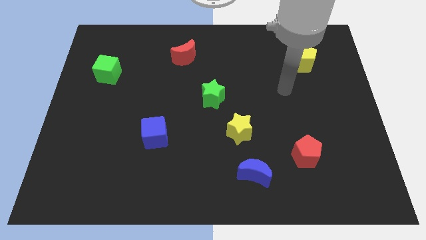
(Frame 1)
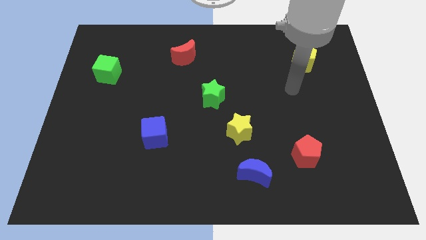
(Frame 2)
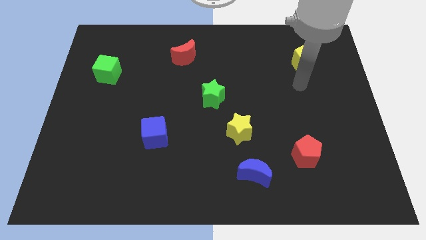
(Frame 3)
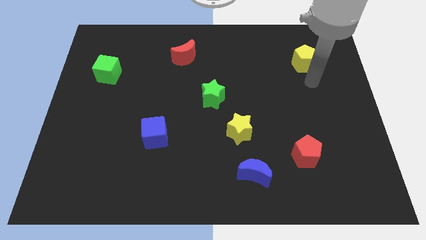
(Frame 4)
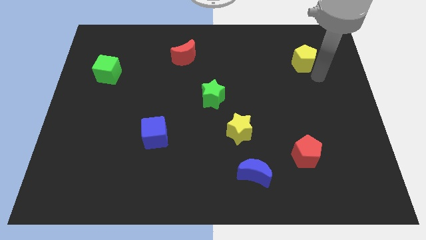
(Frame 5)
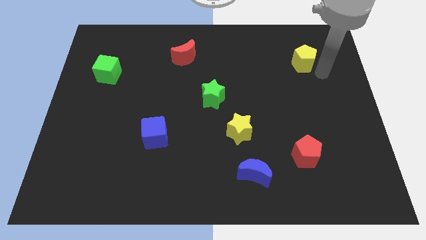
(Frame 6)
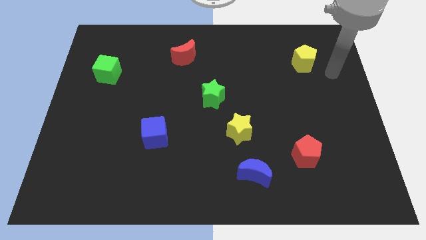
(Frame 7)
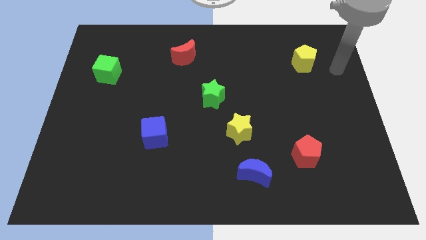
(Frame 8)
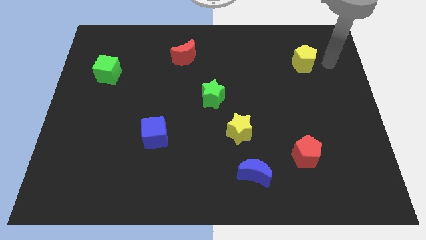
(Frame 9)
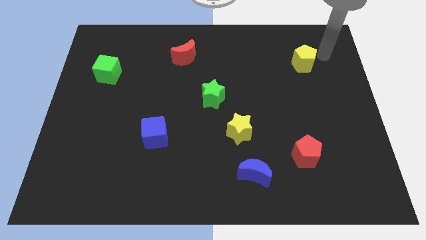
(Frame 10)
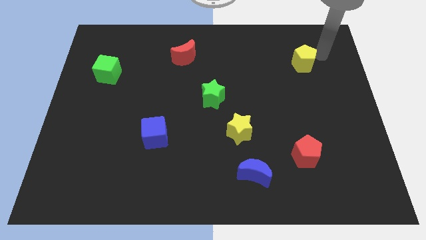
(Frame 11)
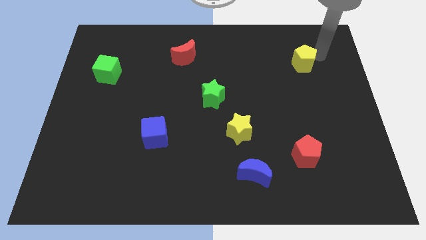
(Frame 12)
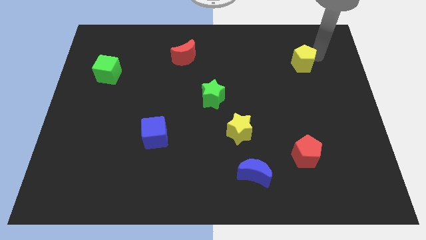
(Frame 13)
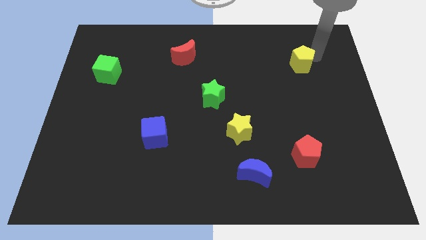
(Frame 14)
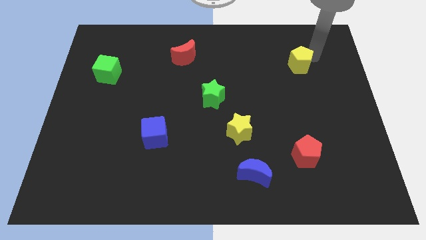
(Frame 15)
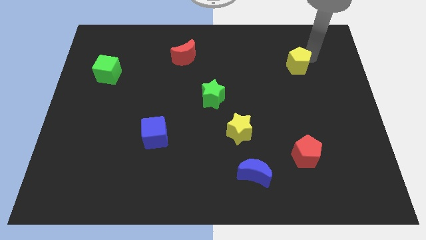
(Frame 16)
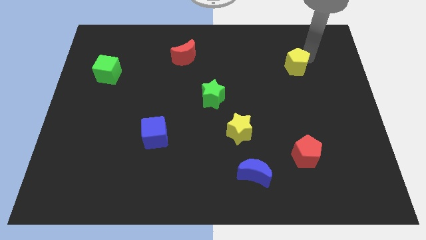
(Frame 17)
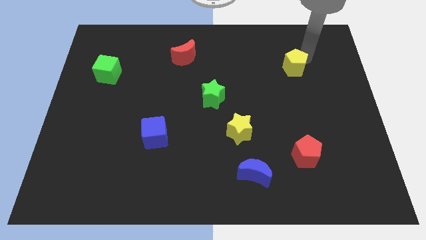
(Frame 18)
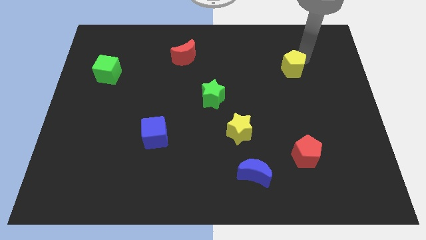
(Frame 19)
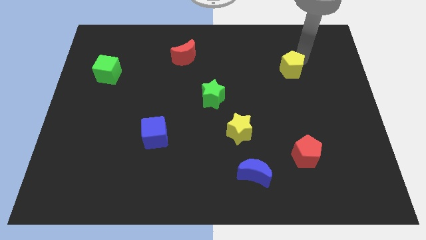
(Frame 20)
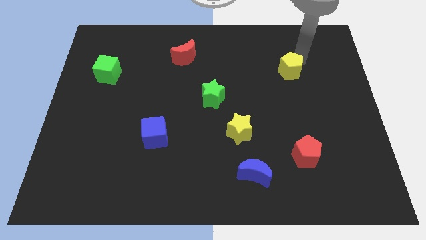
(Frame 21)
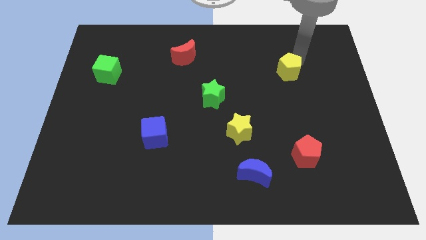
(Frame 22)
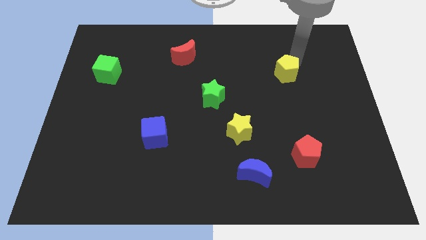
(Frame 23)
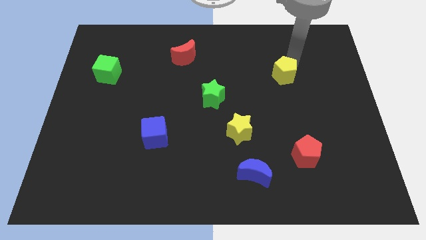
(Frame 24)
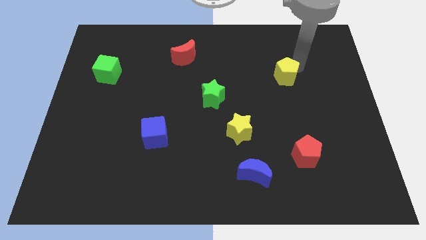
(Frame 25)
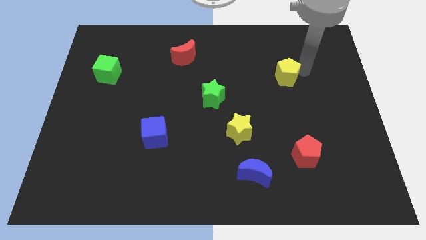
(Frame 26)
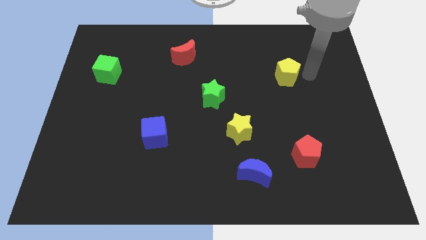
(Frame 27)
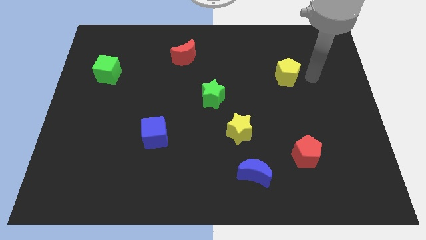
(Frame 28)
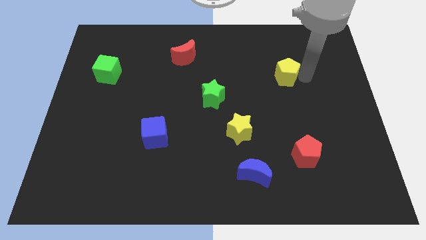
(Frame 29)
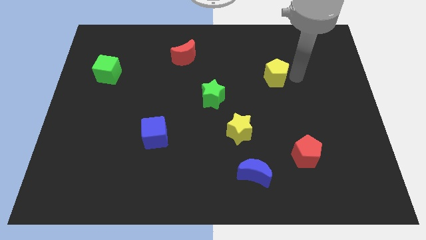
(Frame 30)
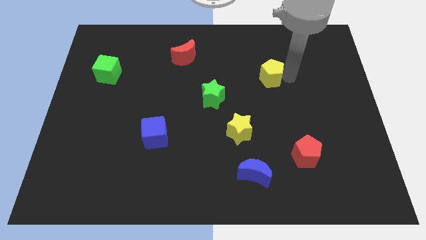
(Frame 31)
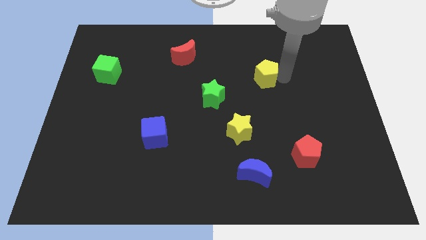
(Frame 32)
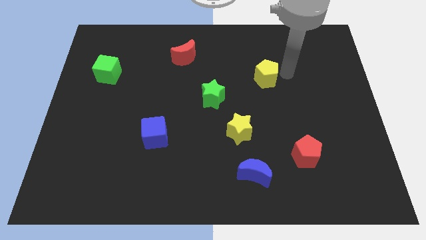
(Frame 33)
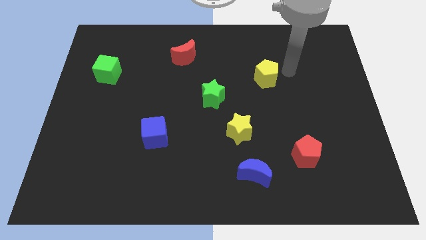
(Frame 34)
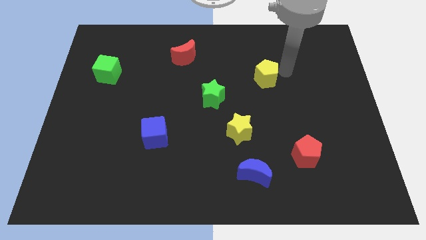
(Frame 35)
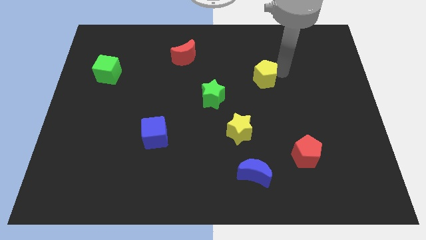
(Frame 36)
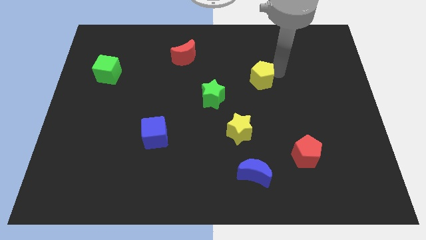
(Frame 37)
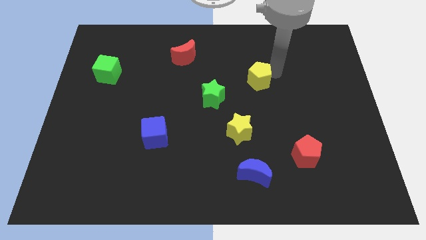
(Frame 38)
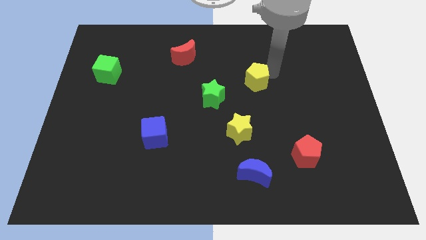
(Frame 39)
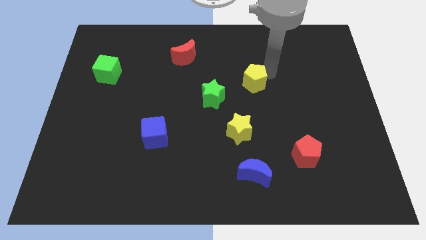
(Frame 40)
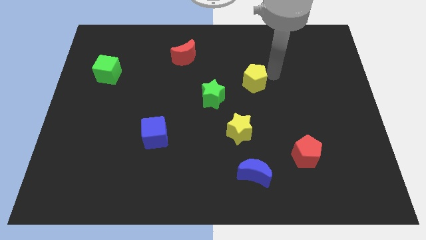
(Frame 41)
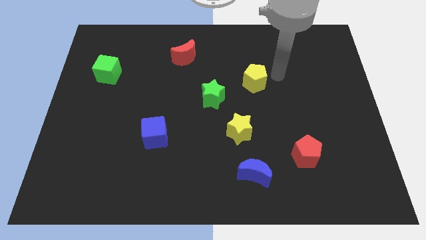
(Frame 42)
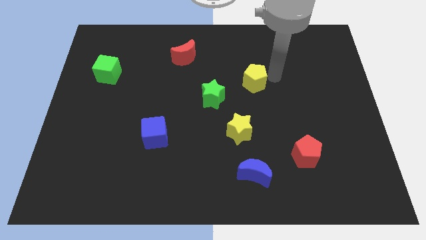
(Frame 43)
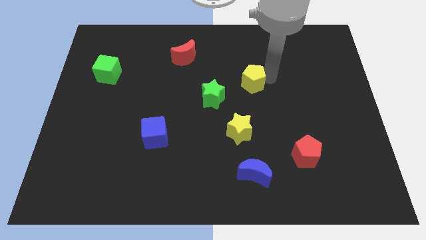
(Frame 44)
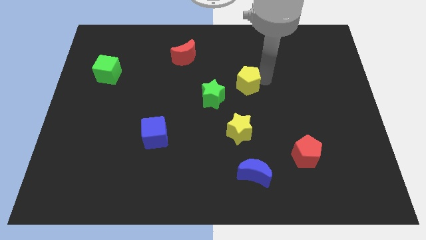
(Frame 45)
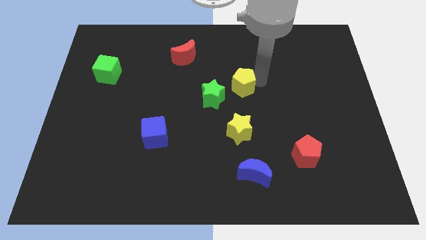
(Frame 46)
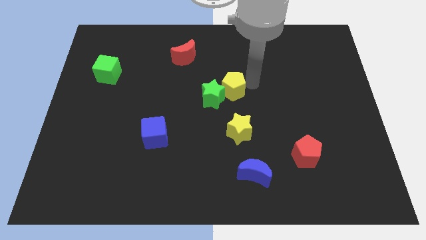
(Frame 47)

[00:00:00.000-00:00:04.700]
move the yellow pentagon close to the green star

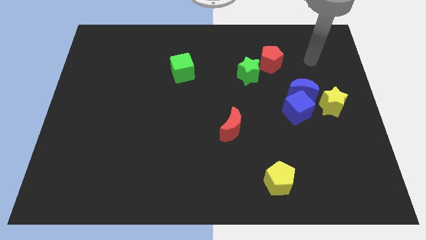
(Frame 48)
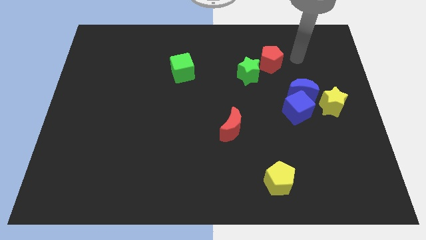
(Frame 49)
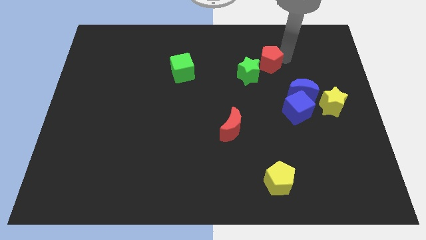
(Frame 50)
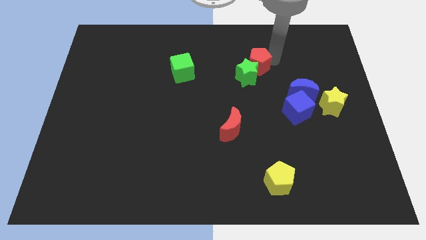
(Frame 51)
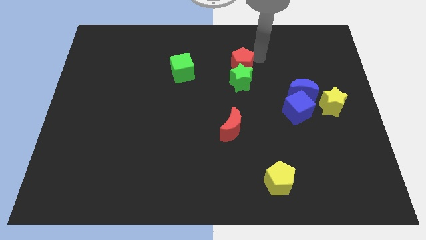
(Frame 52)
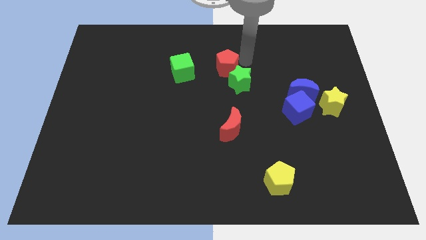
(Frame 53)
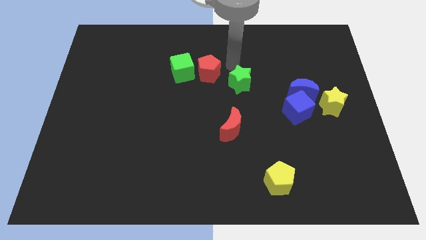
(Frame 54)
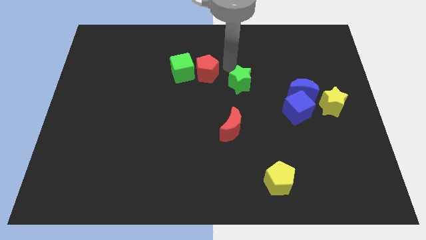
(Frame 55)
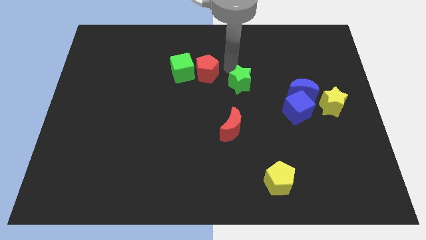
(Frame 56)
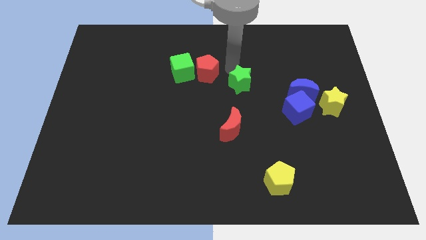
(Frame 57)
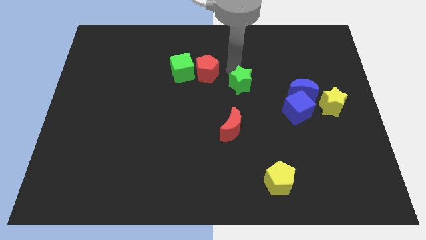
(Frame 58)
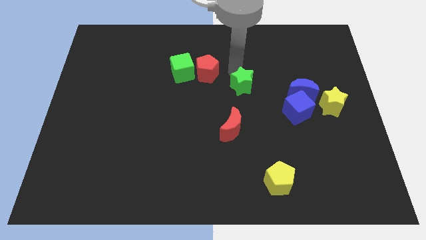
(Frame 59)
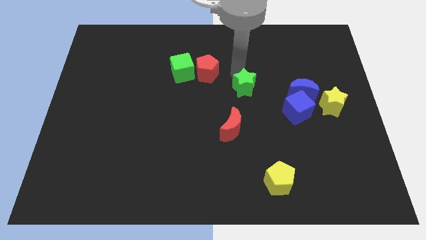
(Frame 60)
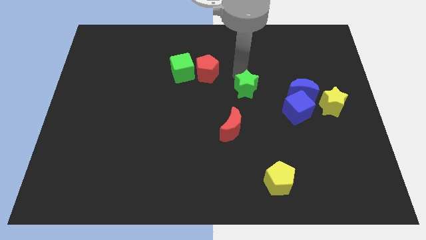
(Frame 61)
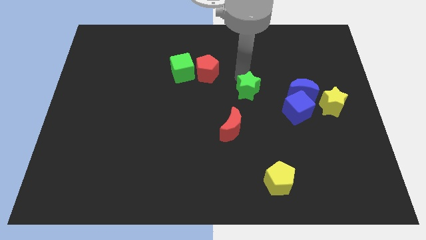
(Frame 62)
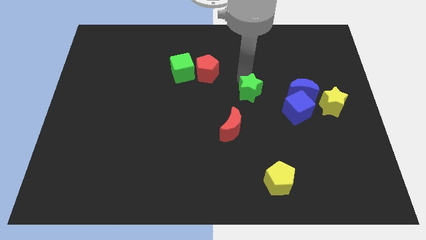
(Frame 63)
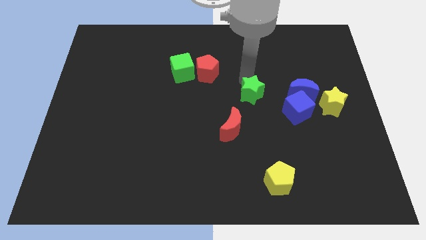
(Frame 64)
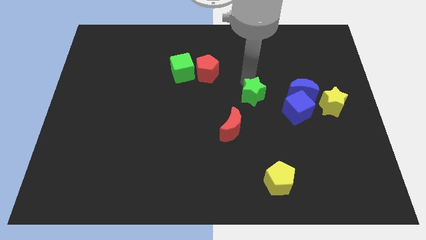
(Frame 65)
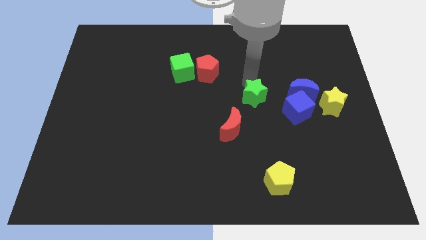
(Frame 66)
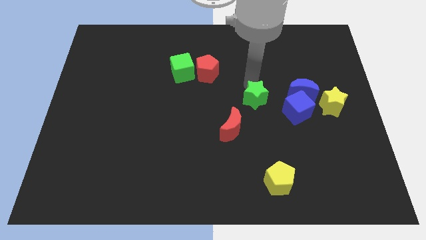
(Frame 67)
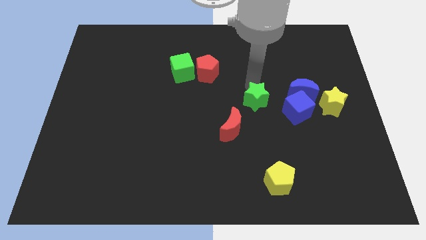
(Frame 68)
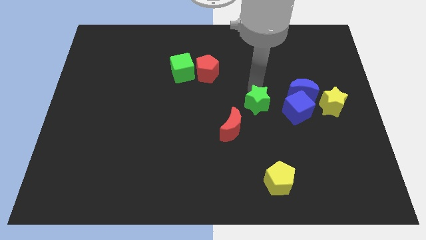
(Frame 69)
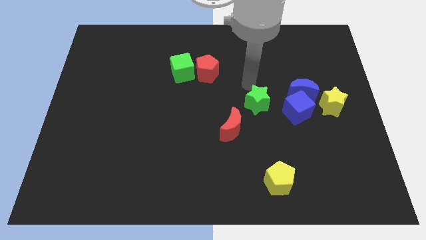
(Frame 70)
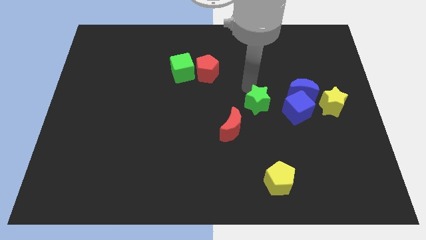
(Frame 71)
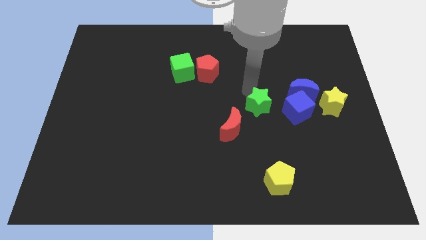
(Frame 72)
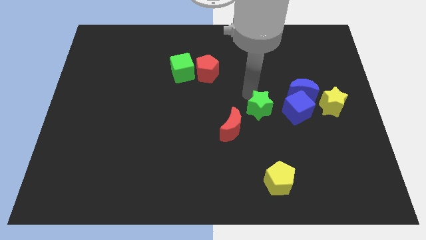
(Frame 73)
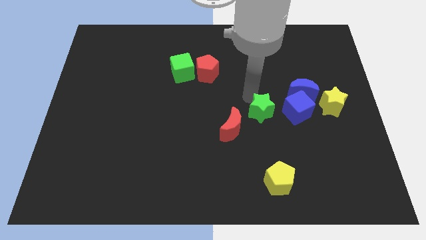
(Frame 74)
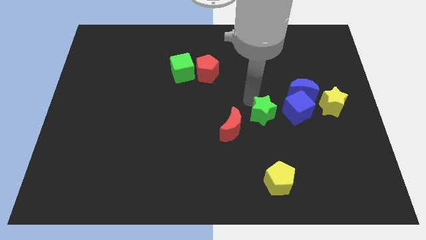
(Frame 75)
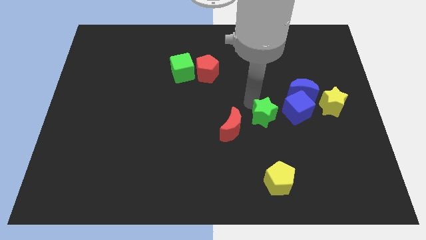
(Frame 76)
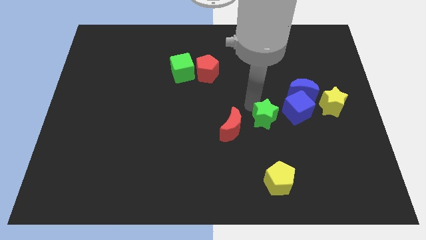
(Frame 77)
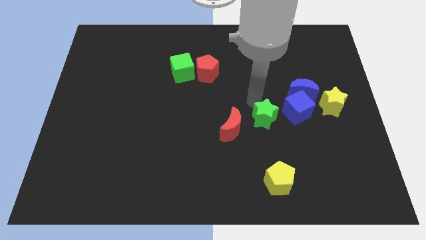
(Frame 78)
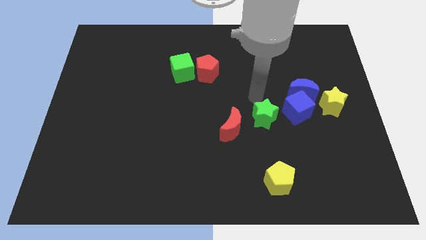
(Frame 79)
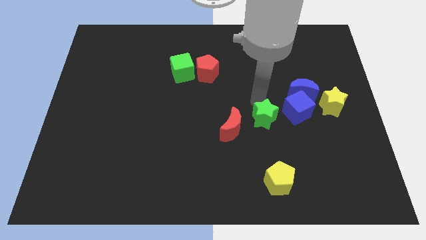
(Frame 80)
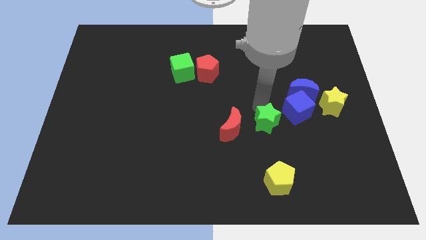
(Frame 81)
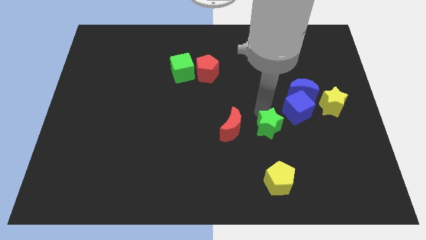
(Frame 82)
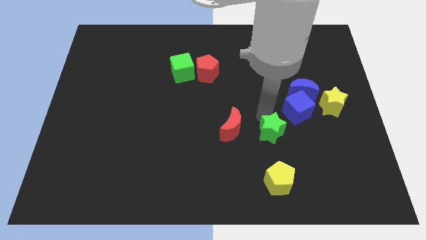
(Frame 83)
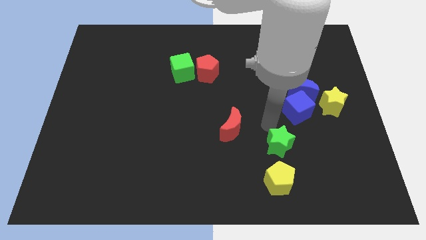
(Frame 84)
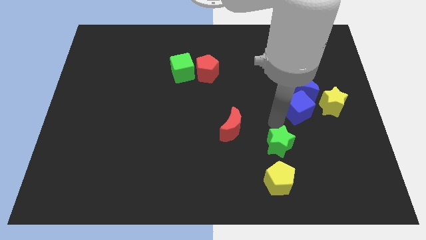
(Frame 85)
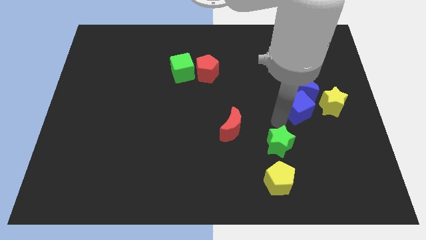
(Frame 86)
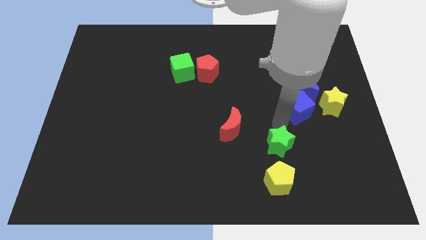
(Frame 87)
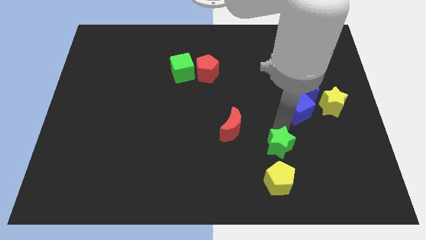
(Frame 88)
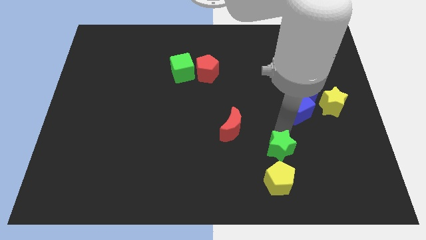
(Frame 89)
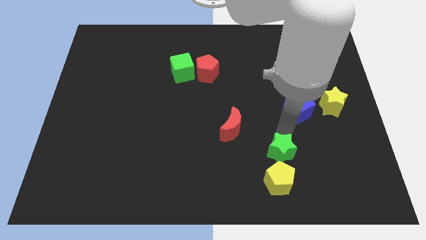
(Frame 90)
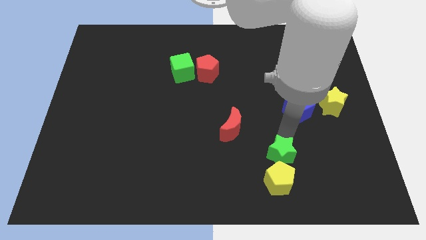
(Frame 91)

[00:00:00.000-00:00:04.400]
push the green star close to the yellow pentagon
